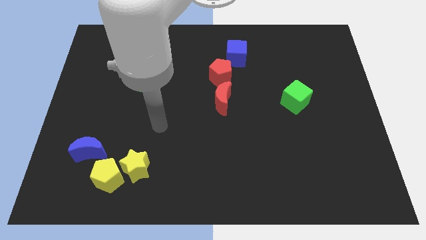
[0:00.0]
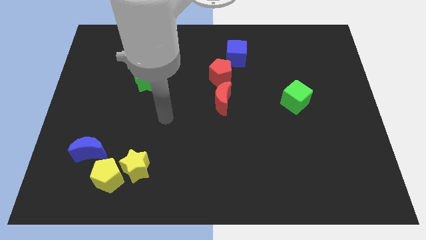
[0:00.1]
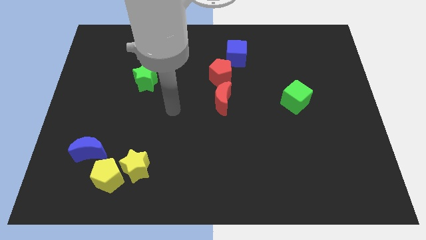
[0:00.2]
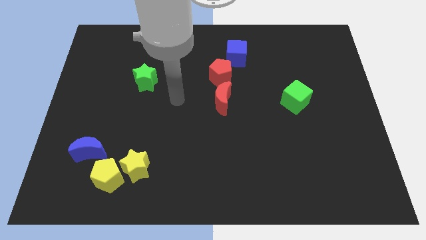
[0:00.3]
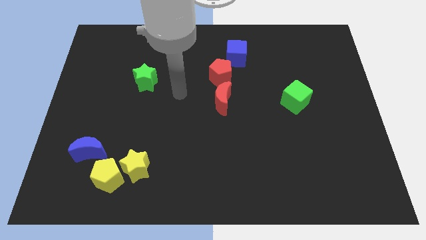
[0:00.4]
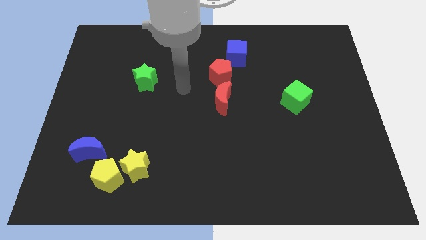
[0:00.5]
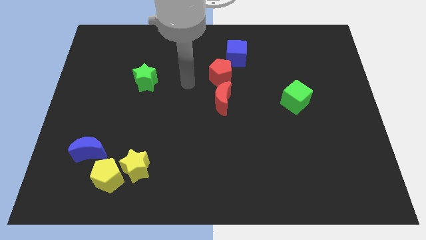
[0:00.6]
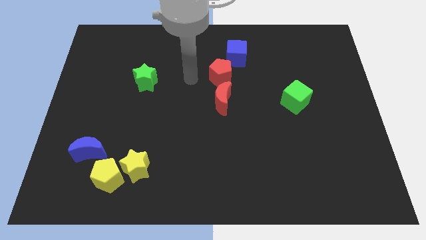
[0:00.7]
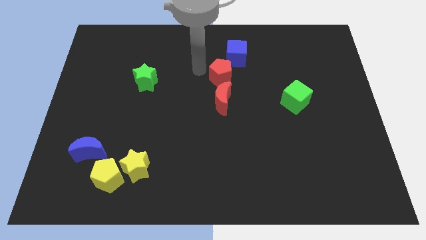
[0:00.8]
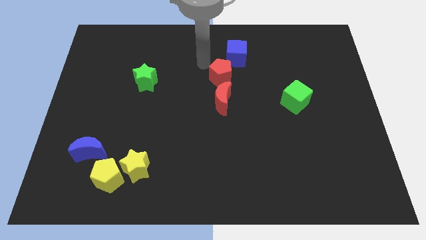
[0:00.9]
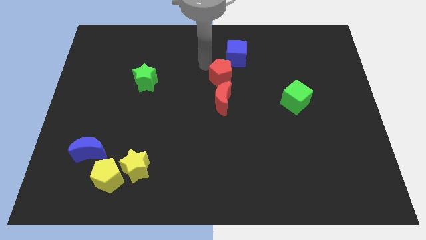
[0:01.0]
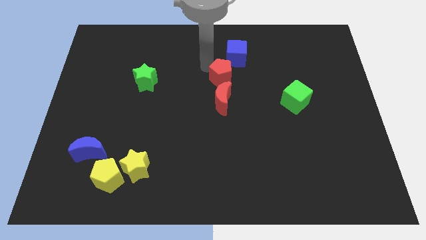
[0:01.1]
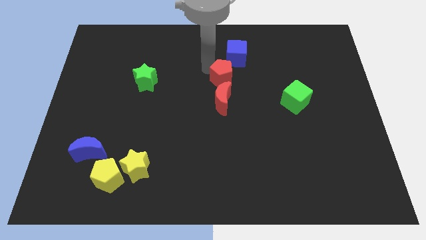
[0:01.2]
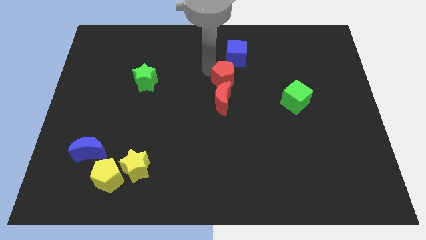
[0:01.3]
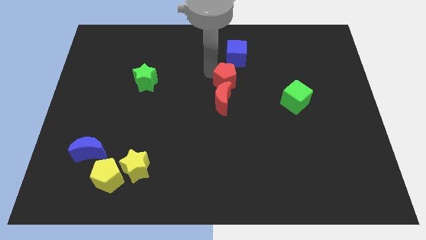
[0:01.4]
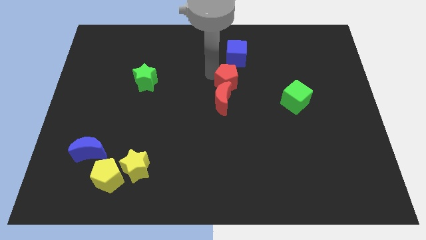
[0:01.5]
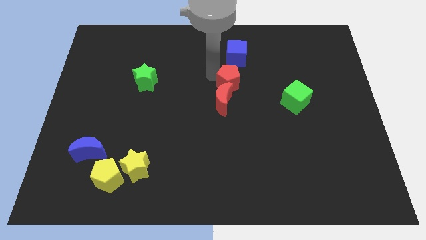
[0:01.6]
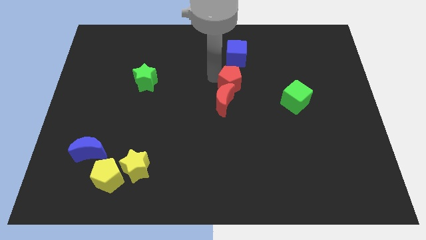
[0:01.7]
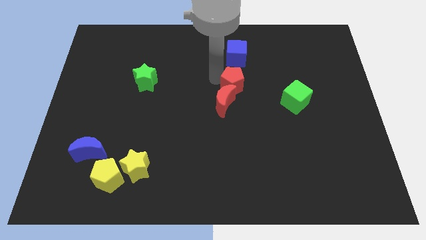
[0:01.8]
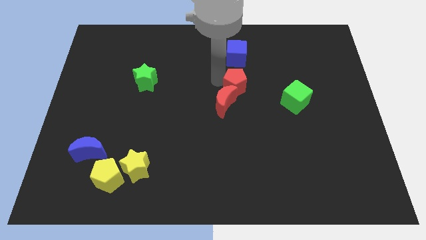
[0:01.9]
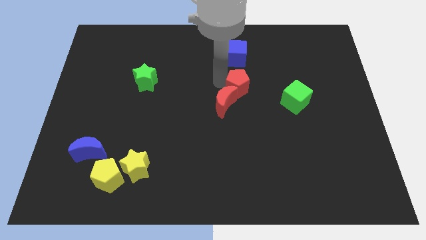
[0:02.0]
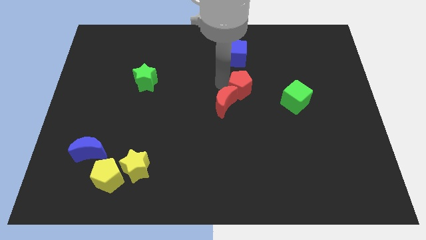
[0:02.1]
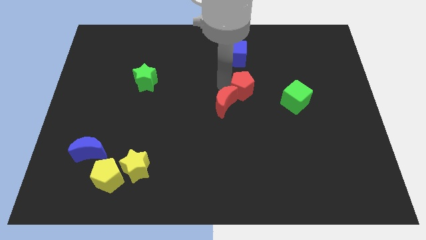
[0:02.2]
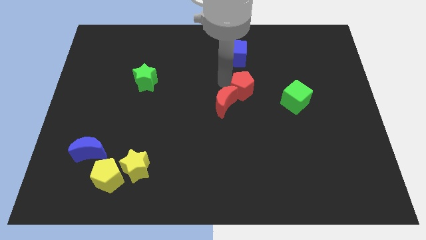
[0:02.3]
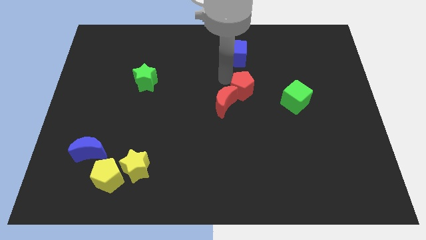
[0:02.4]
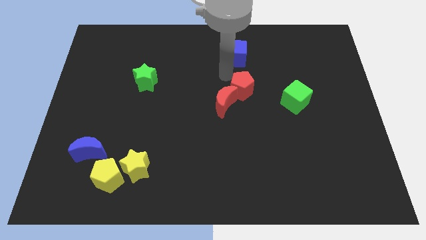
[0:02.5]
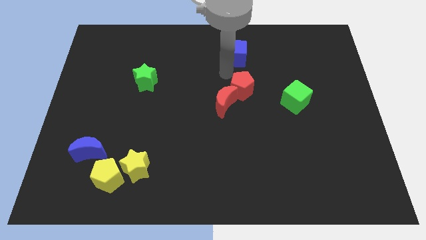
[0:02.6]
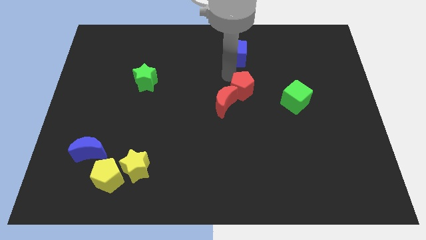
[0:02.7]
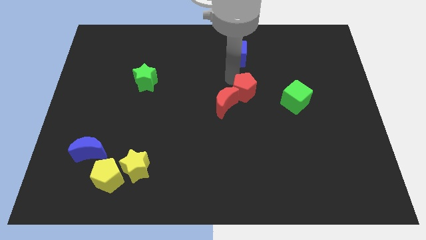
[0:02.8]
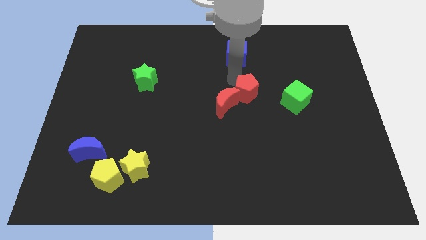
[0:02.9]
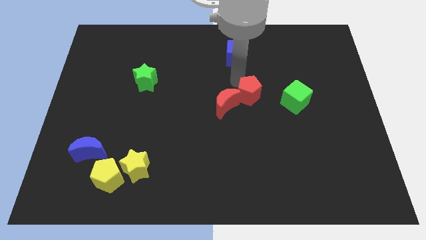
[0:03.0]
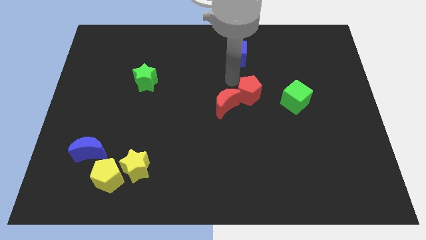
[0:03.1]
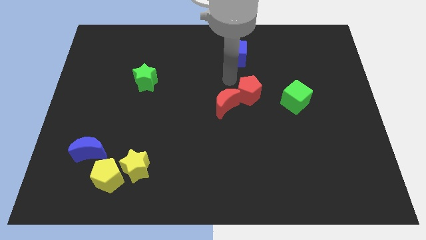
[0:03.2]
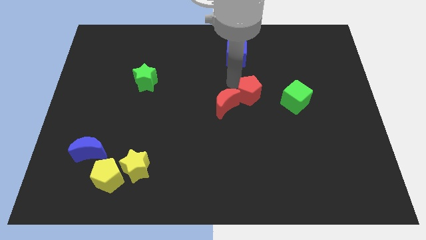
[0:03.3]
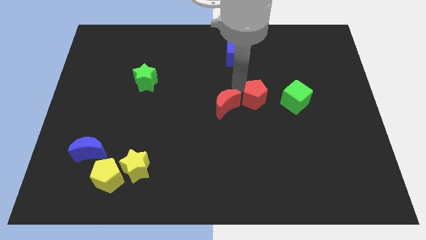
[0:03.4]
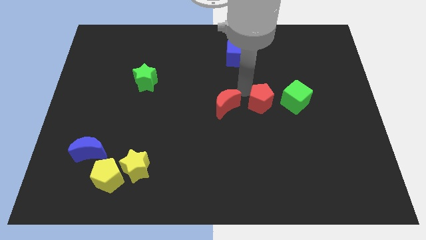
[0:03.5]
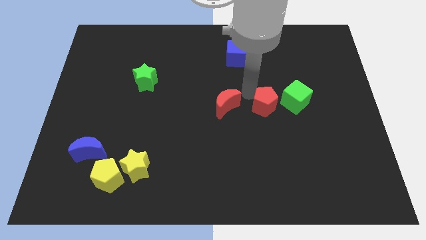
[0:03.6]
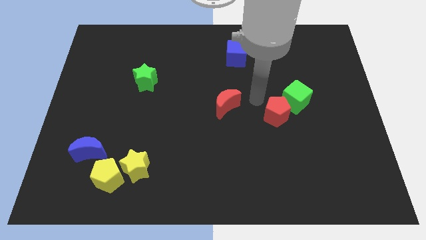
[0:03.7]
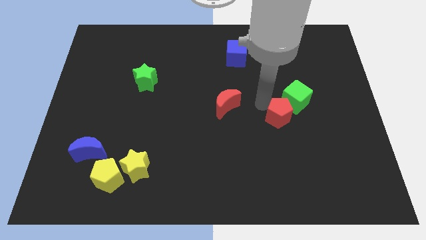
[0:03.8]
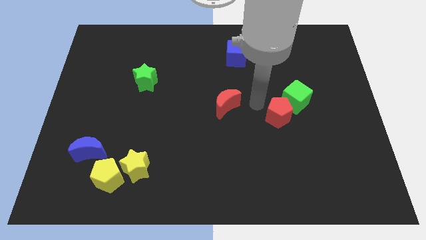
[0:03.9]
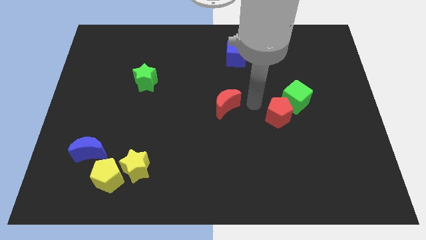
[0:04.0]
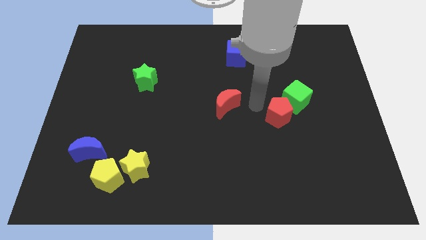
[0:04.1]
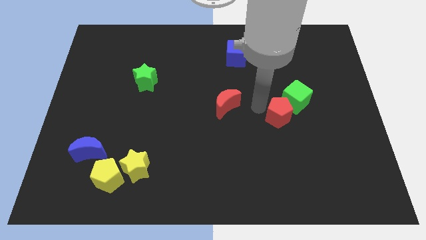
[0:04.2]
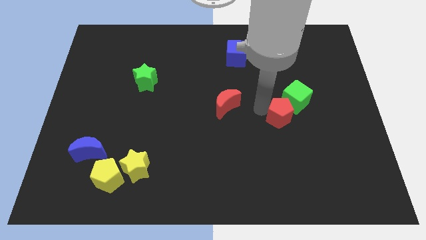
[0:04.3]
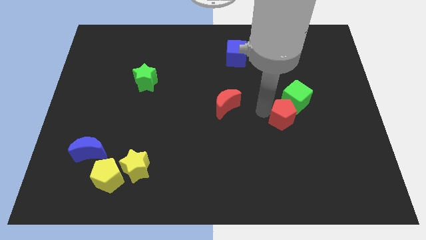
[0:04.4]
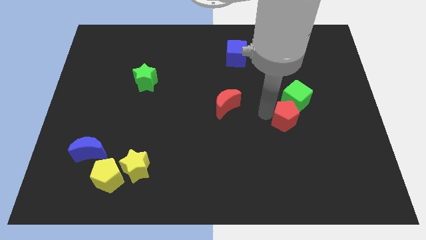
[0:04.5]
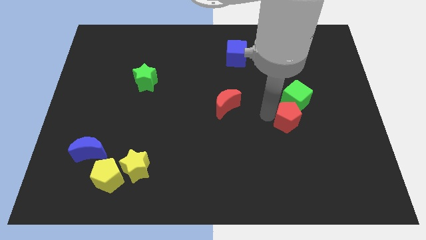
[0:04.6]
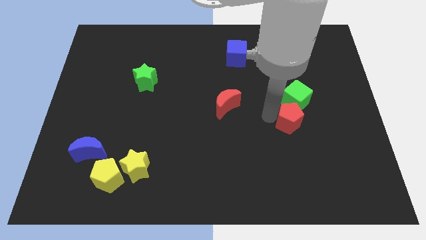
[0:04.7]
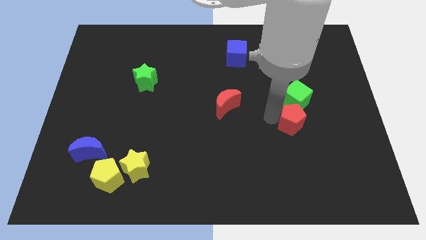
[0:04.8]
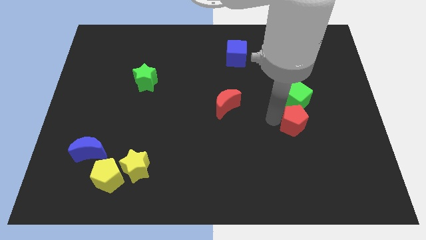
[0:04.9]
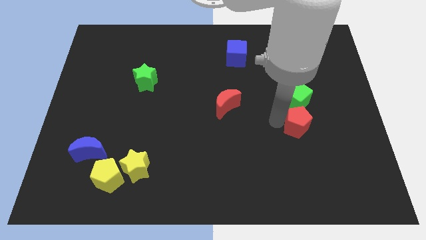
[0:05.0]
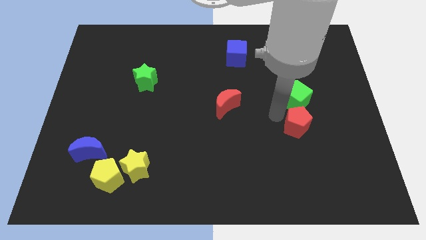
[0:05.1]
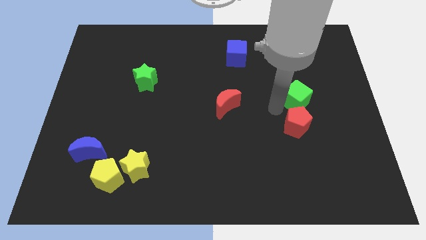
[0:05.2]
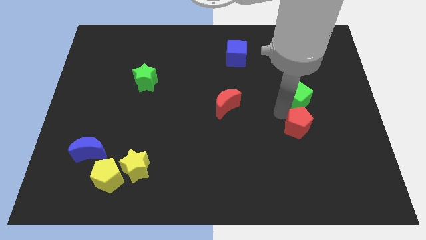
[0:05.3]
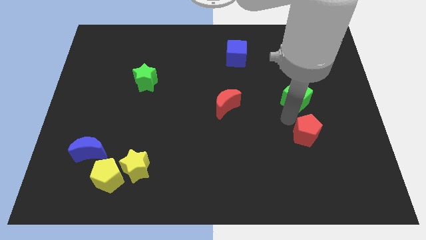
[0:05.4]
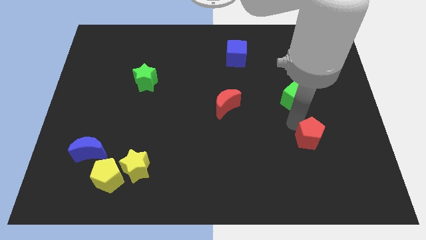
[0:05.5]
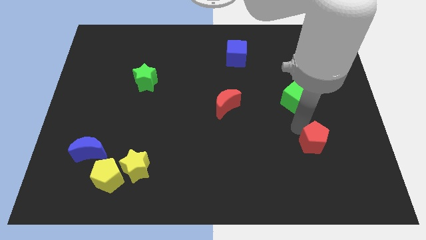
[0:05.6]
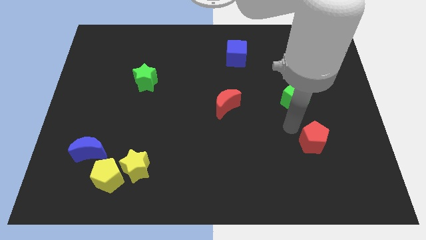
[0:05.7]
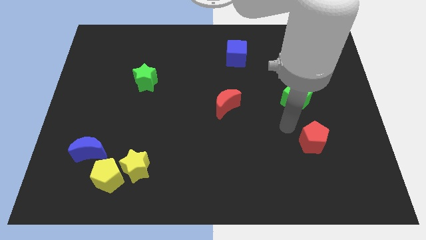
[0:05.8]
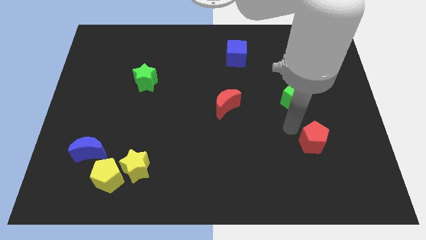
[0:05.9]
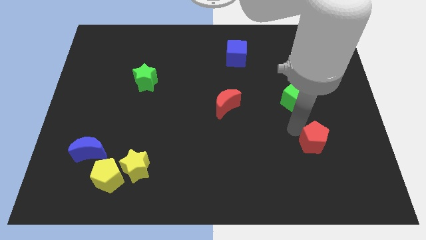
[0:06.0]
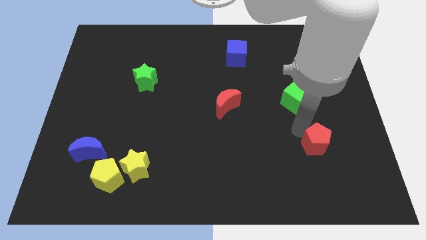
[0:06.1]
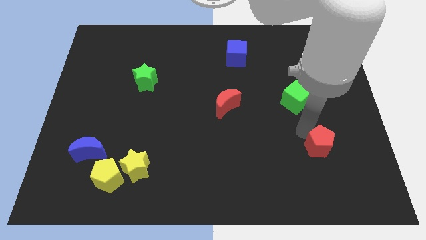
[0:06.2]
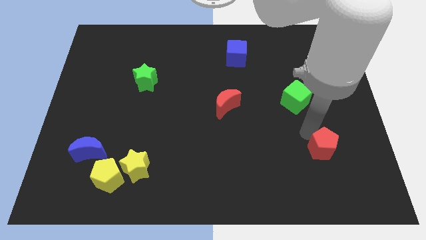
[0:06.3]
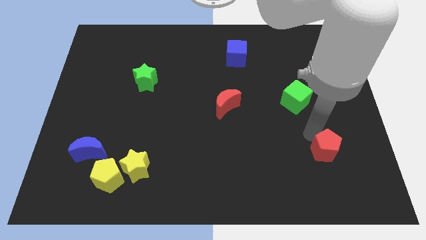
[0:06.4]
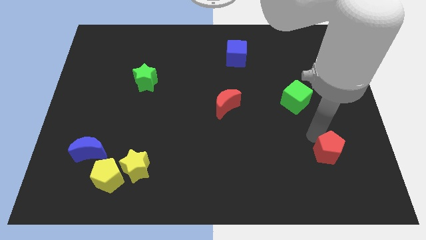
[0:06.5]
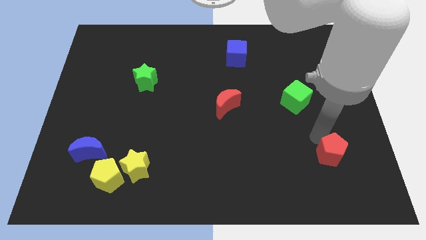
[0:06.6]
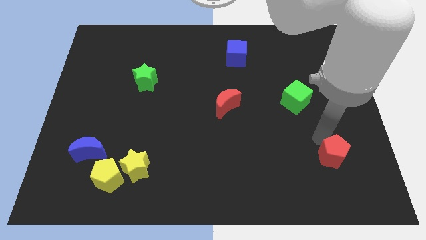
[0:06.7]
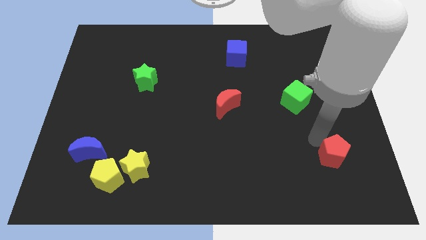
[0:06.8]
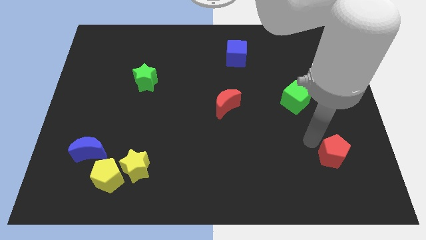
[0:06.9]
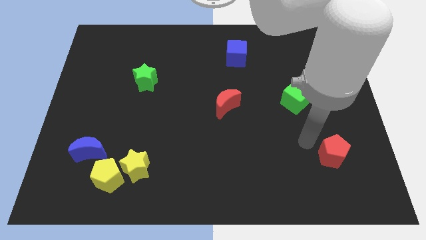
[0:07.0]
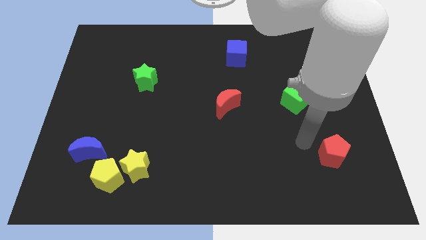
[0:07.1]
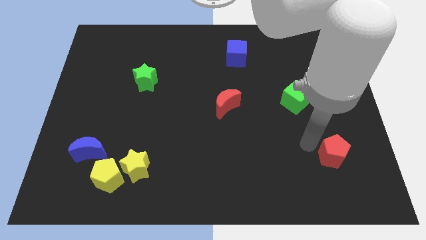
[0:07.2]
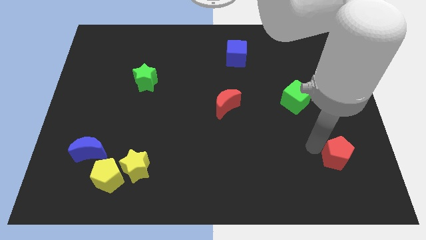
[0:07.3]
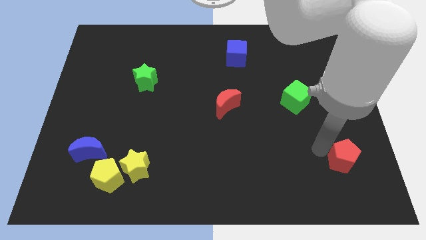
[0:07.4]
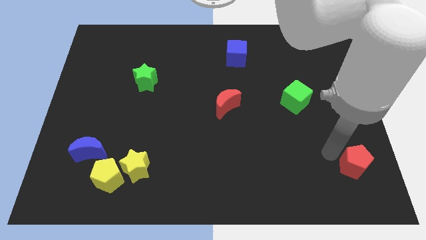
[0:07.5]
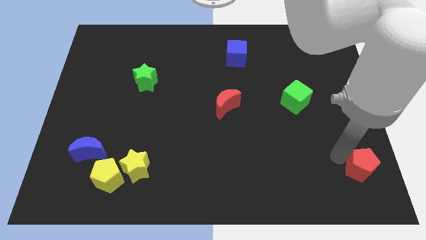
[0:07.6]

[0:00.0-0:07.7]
push the red pentagon to the bottom right corner
